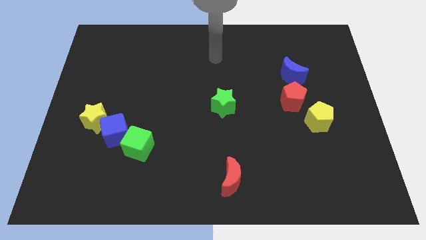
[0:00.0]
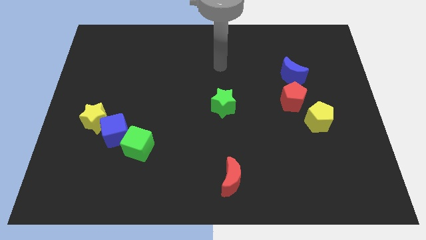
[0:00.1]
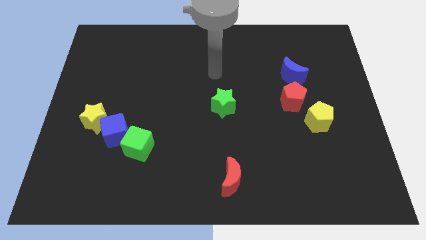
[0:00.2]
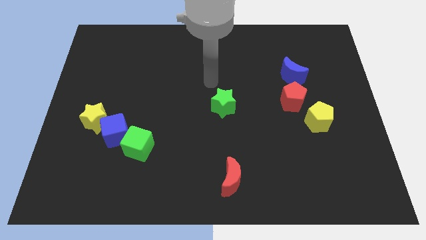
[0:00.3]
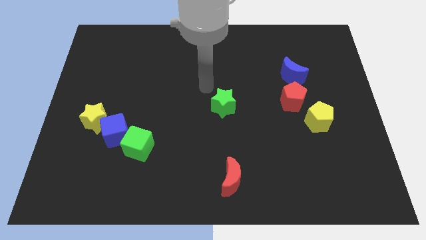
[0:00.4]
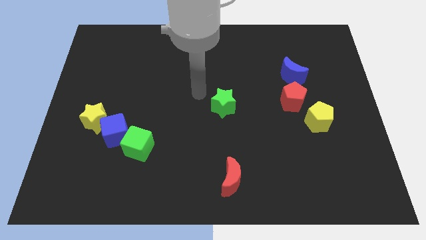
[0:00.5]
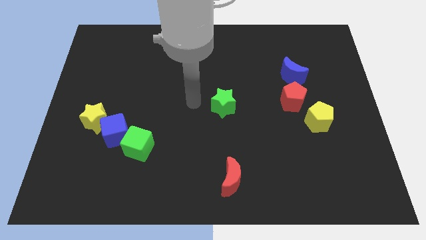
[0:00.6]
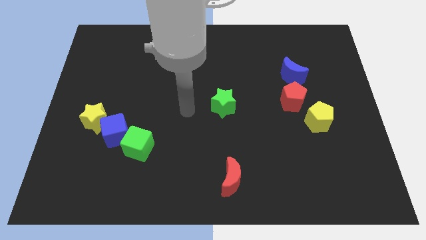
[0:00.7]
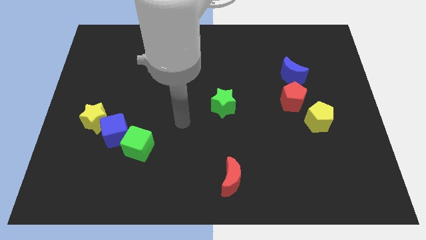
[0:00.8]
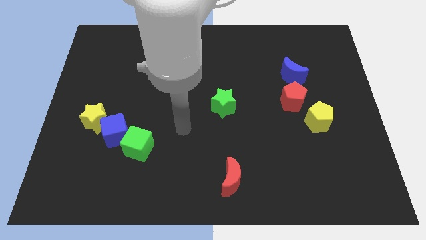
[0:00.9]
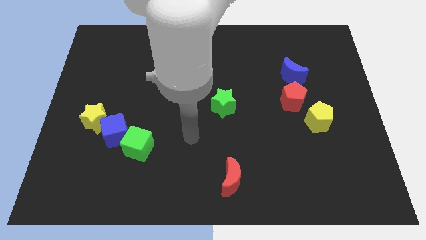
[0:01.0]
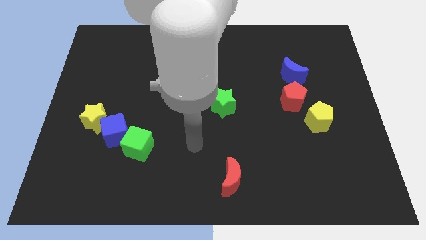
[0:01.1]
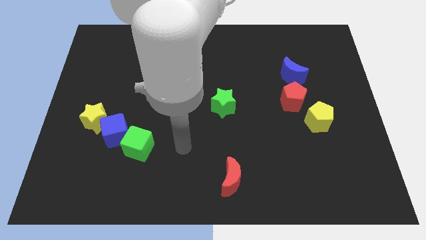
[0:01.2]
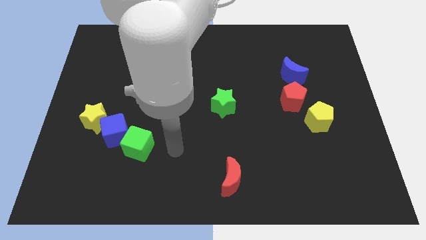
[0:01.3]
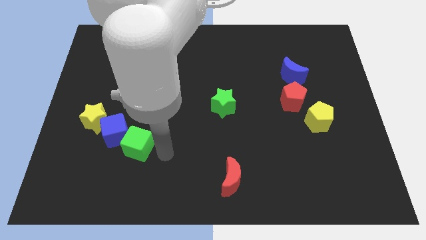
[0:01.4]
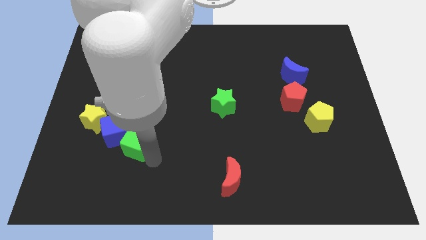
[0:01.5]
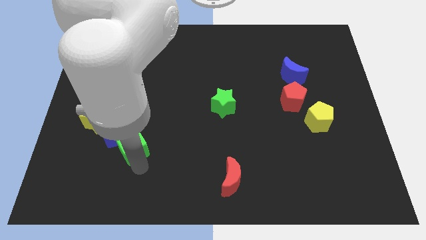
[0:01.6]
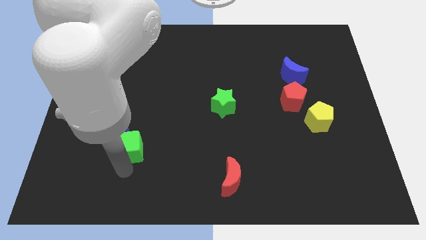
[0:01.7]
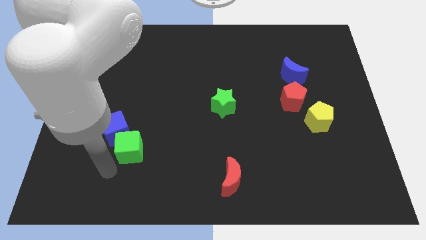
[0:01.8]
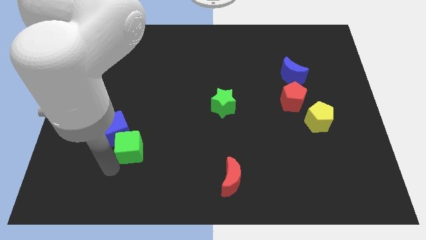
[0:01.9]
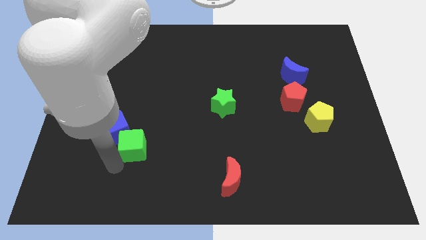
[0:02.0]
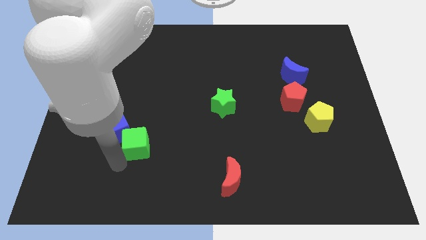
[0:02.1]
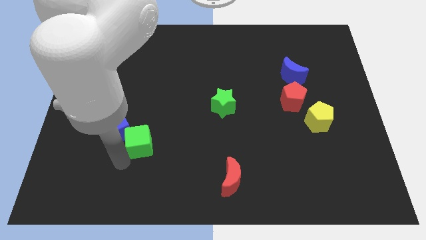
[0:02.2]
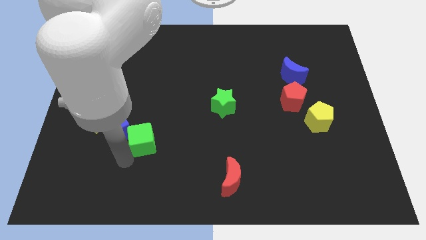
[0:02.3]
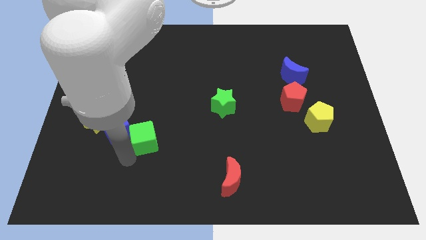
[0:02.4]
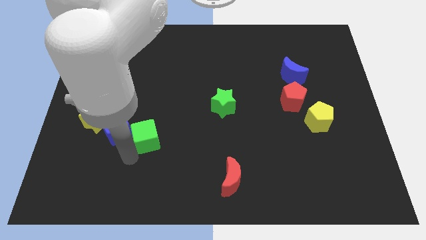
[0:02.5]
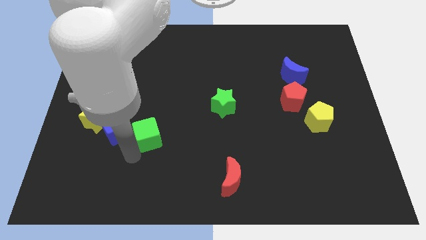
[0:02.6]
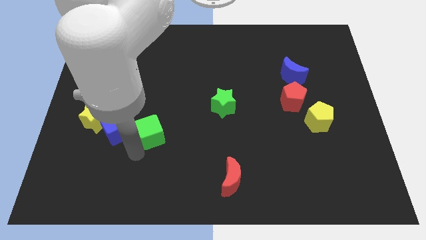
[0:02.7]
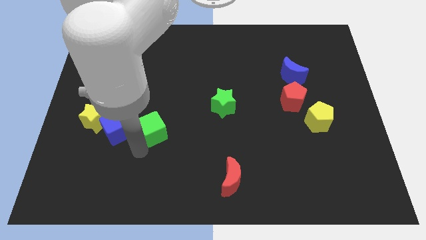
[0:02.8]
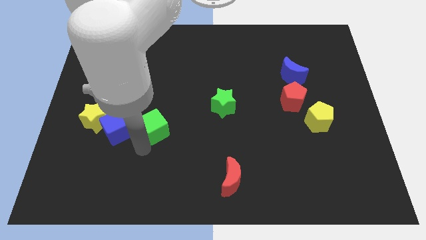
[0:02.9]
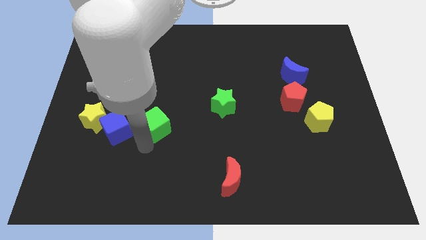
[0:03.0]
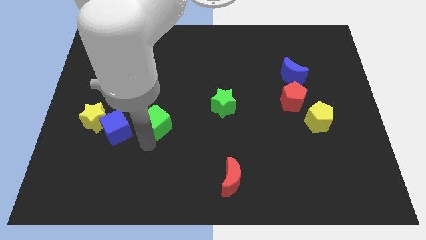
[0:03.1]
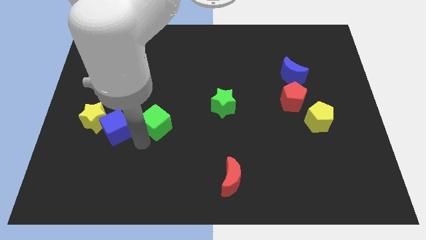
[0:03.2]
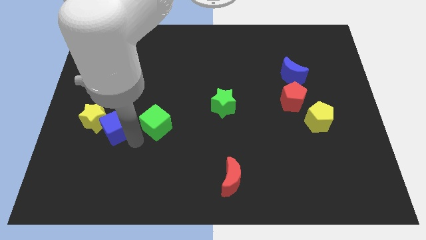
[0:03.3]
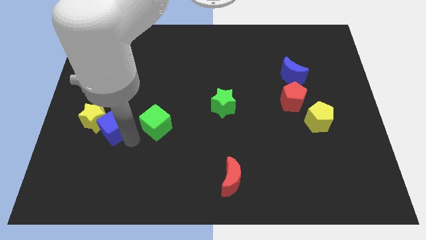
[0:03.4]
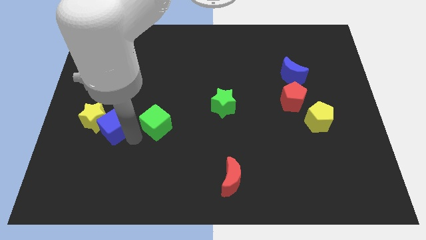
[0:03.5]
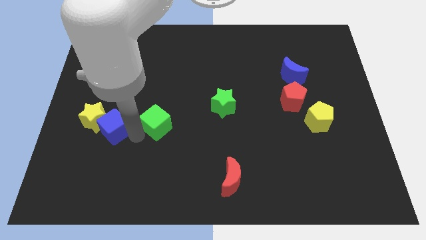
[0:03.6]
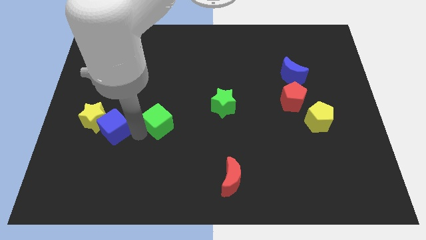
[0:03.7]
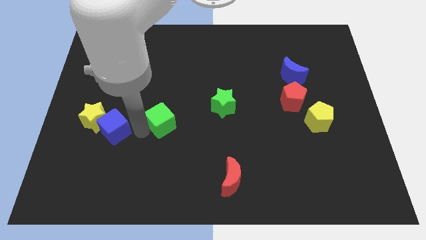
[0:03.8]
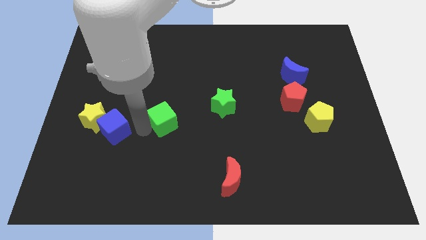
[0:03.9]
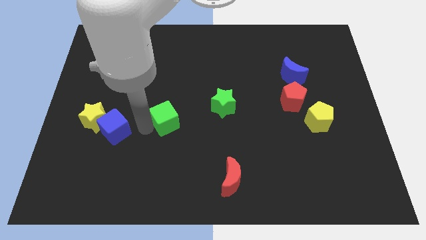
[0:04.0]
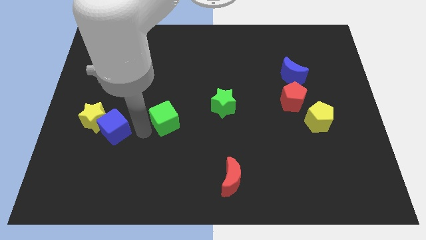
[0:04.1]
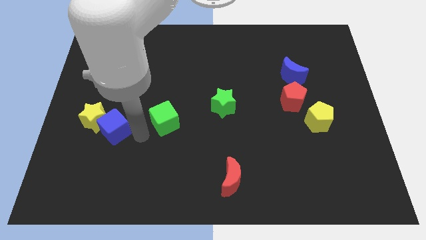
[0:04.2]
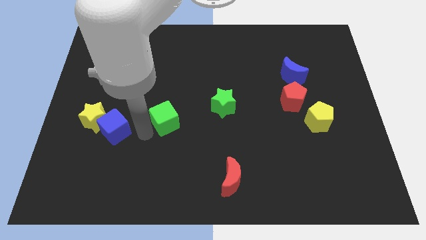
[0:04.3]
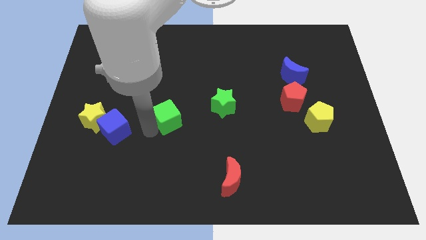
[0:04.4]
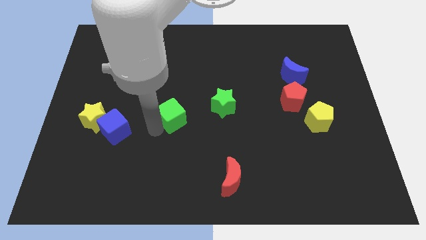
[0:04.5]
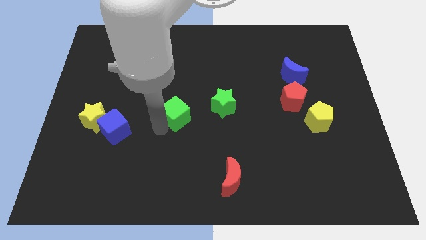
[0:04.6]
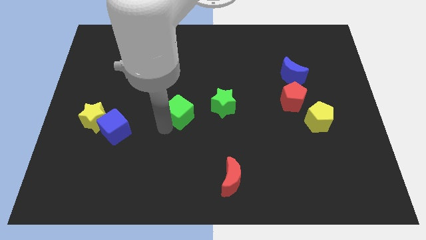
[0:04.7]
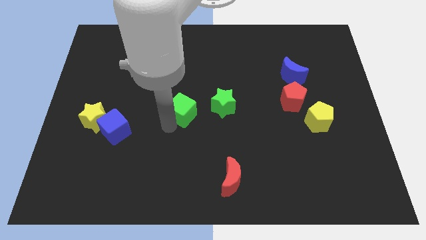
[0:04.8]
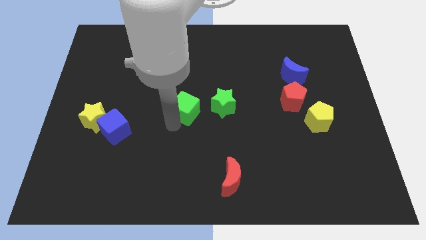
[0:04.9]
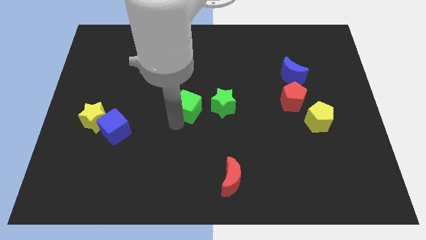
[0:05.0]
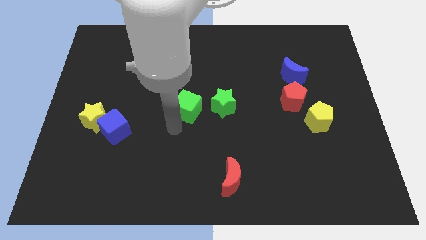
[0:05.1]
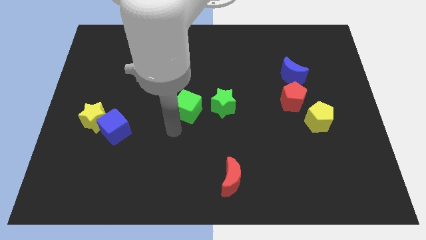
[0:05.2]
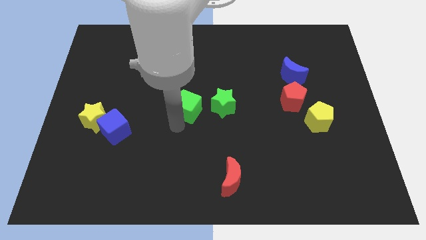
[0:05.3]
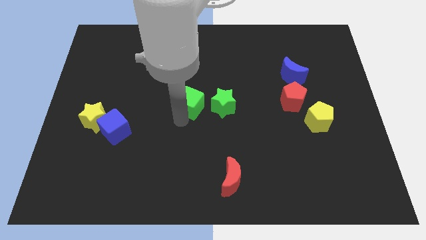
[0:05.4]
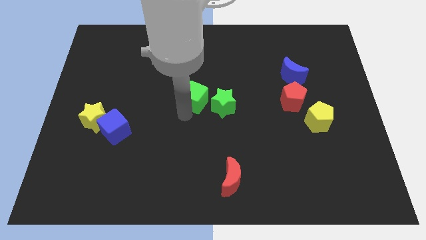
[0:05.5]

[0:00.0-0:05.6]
slide the green cube diagonally up and to the left of the green star

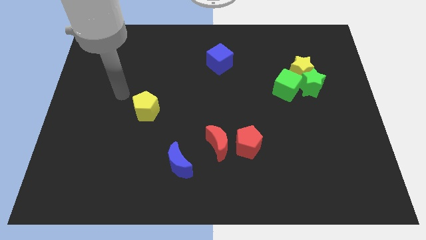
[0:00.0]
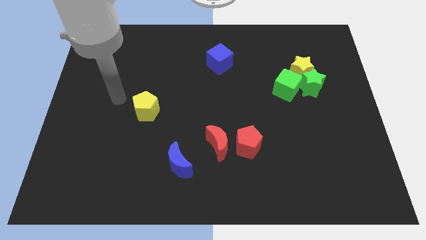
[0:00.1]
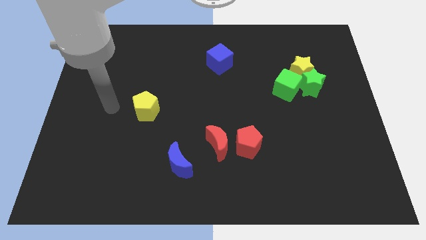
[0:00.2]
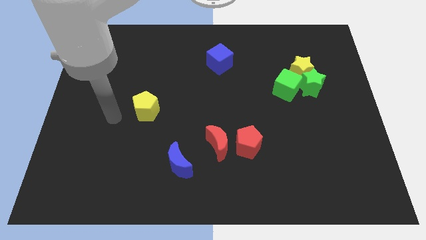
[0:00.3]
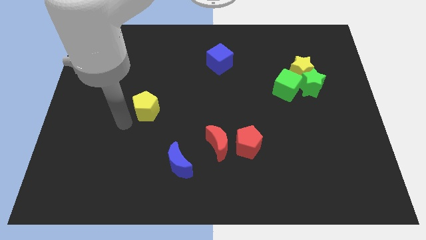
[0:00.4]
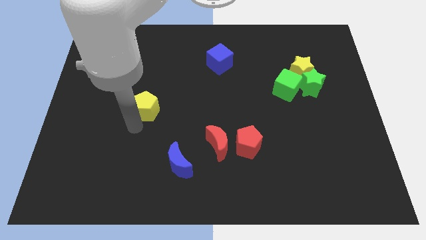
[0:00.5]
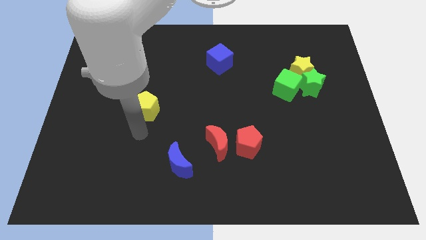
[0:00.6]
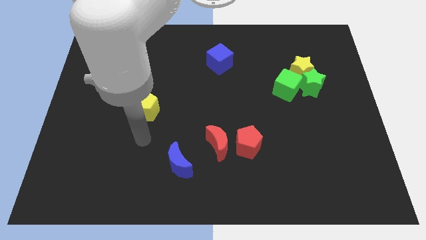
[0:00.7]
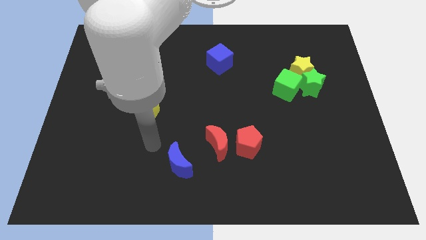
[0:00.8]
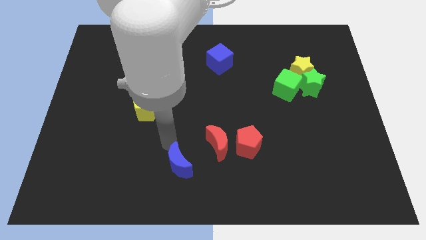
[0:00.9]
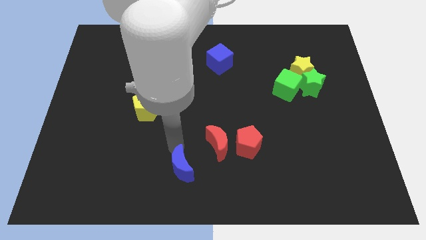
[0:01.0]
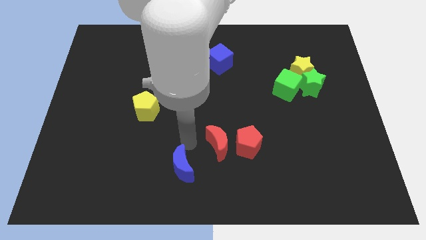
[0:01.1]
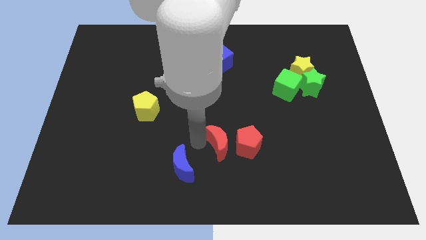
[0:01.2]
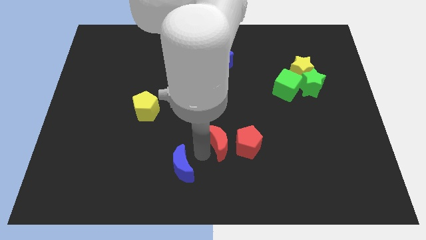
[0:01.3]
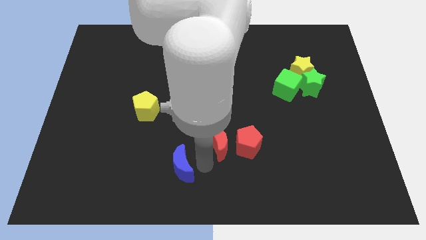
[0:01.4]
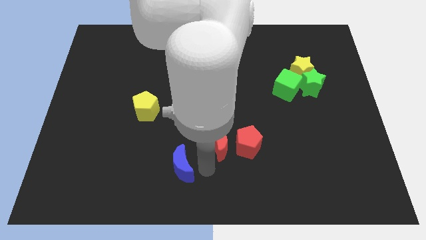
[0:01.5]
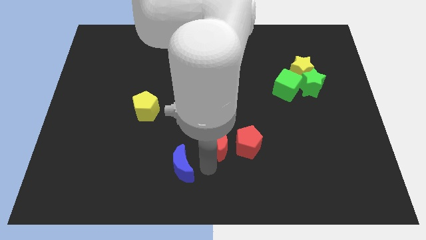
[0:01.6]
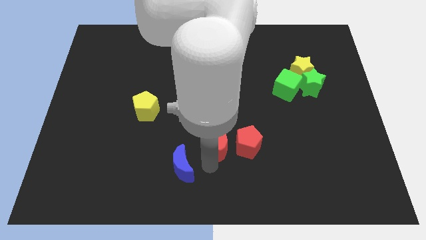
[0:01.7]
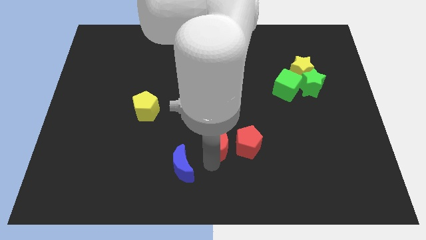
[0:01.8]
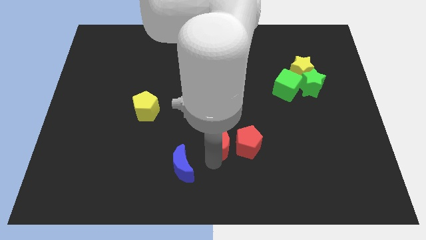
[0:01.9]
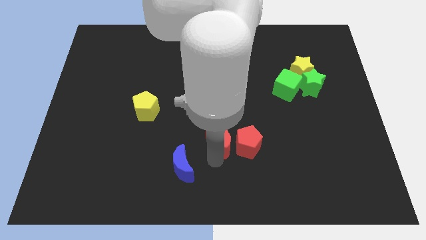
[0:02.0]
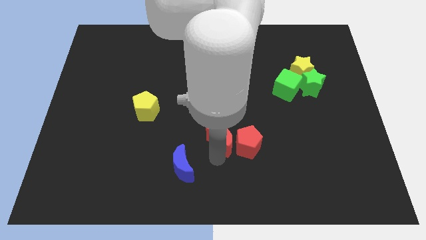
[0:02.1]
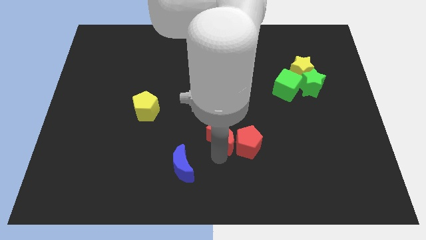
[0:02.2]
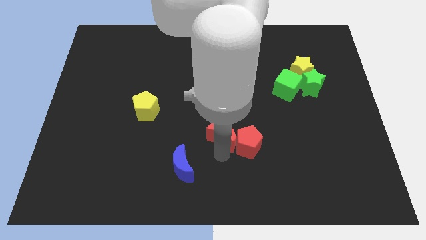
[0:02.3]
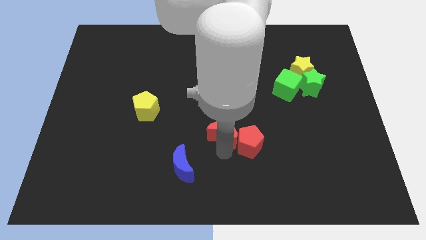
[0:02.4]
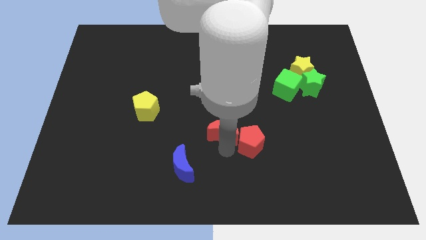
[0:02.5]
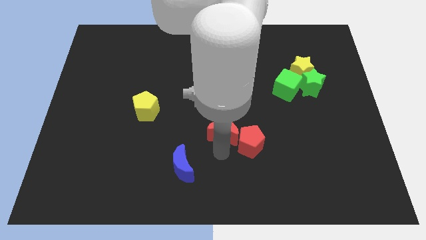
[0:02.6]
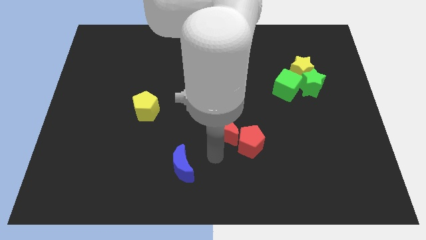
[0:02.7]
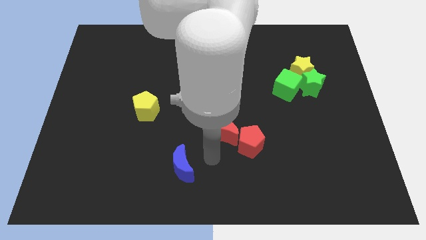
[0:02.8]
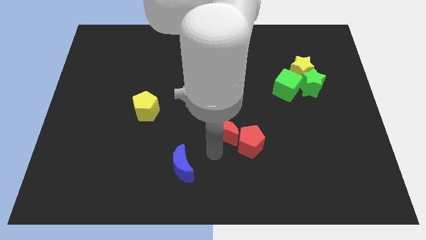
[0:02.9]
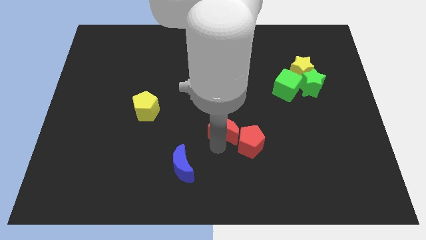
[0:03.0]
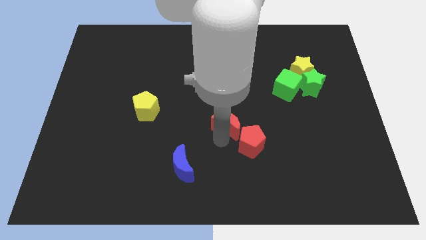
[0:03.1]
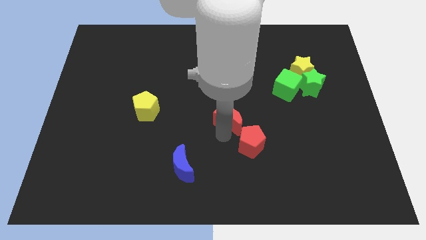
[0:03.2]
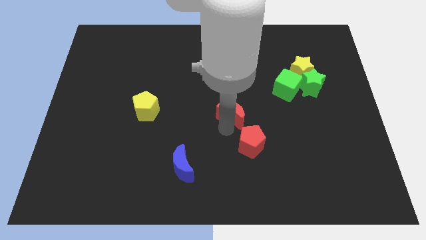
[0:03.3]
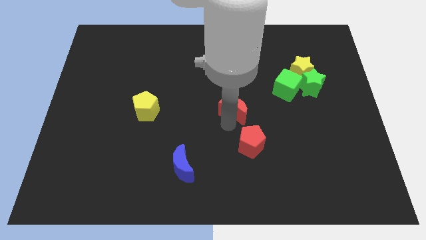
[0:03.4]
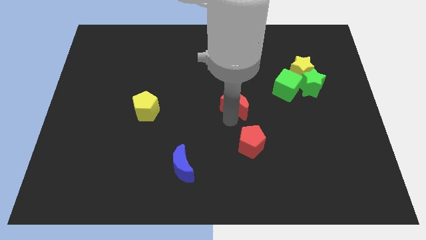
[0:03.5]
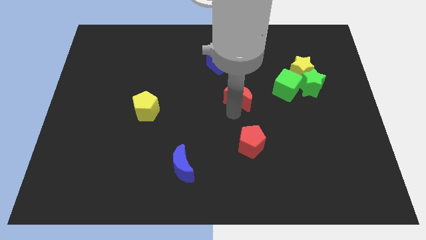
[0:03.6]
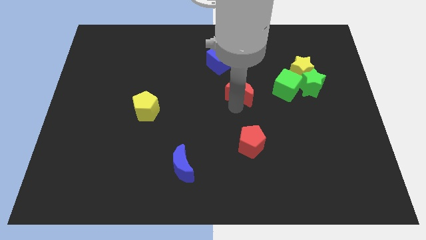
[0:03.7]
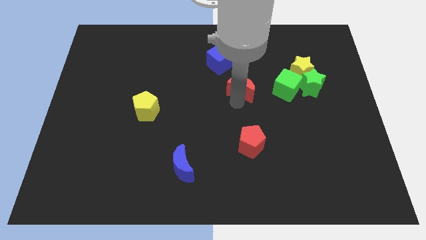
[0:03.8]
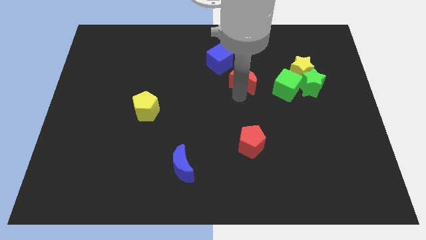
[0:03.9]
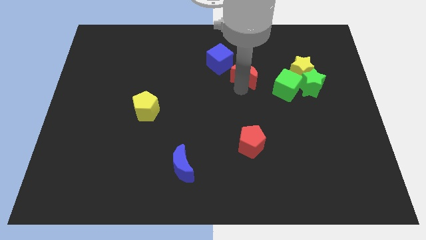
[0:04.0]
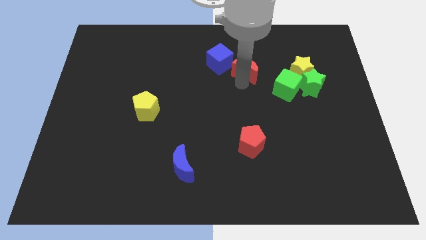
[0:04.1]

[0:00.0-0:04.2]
slide the red moon just right of the blue cube
